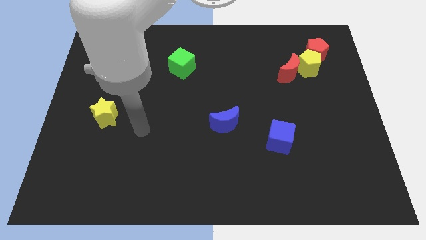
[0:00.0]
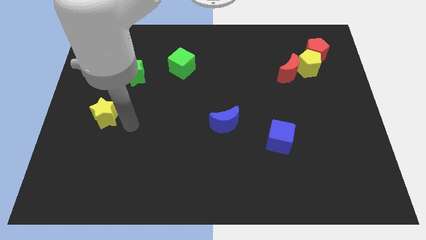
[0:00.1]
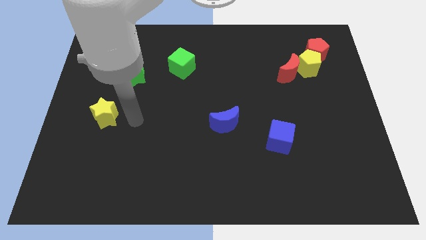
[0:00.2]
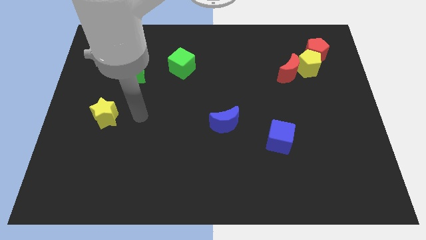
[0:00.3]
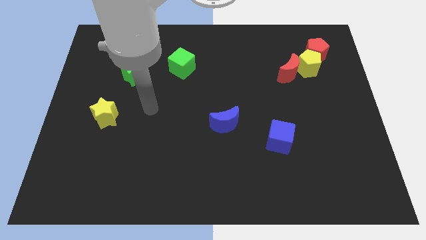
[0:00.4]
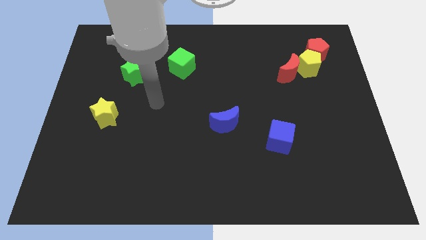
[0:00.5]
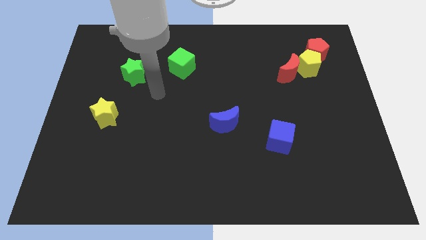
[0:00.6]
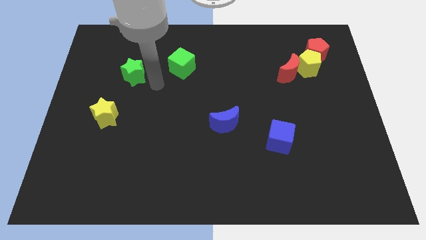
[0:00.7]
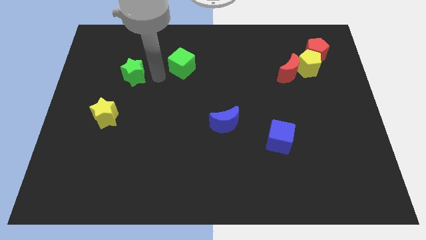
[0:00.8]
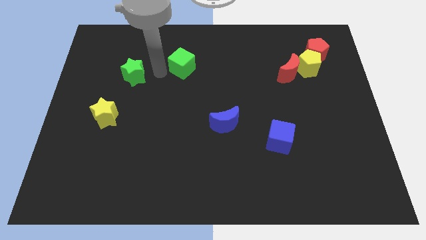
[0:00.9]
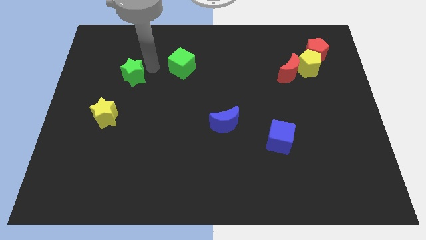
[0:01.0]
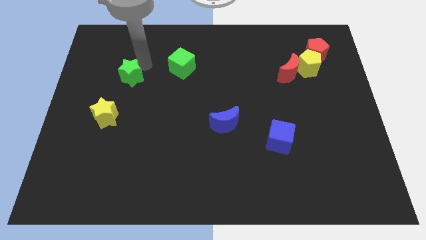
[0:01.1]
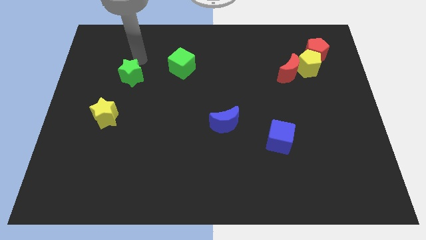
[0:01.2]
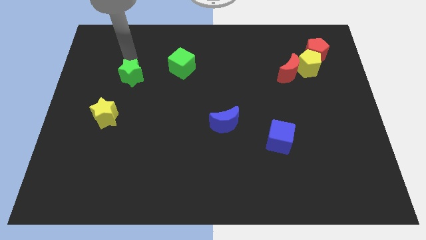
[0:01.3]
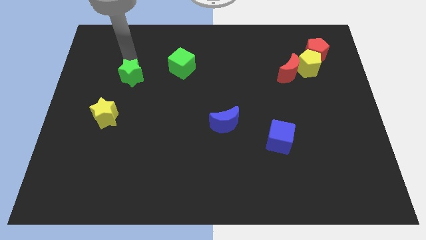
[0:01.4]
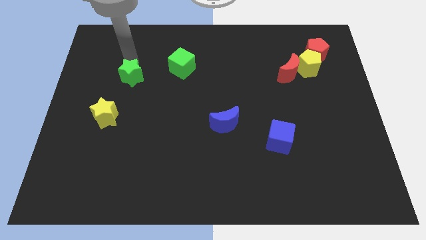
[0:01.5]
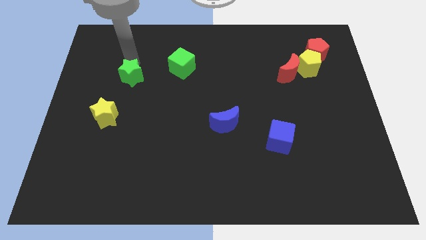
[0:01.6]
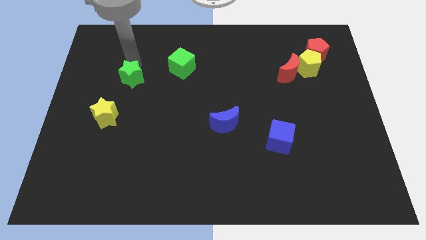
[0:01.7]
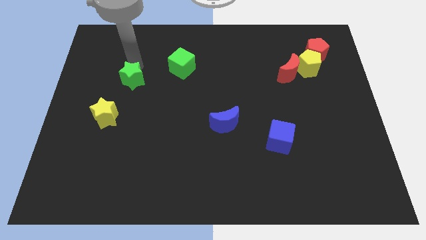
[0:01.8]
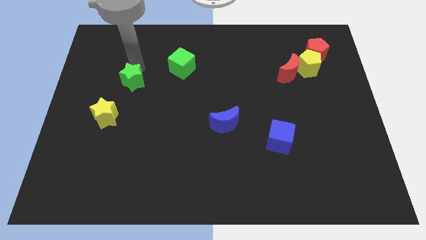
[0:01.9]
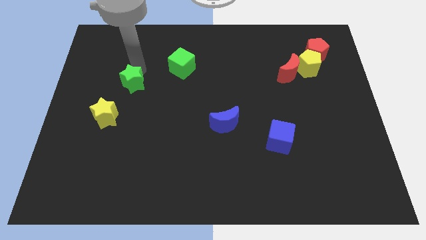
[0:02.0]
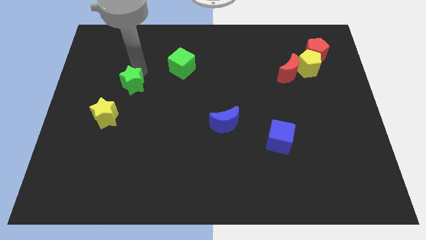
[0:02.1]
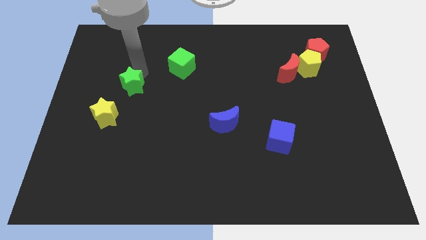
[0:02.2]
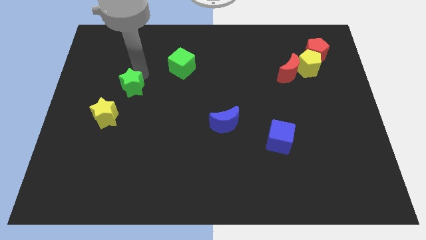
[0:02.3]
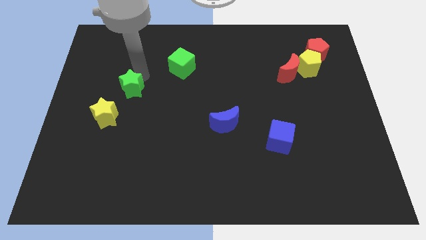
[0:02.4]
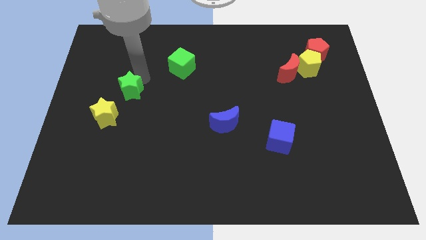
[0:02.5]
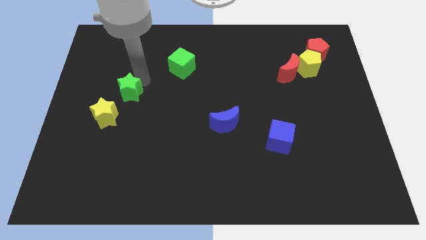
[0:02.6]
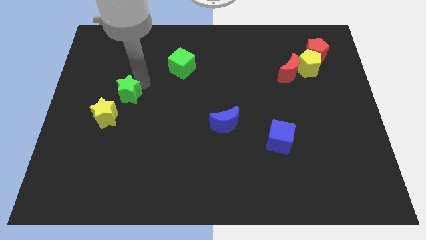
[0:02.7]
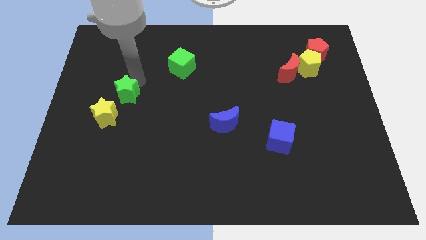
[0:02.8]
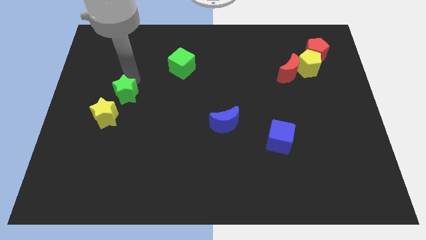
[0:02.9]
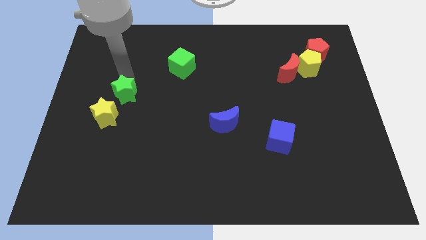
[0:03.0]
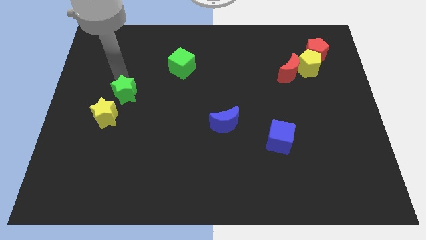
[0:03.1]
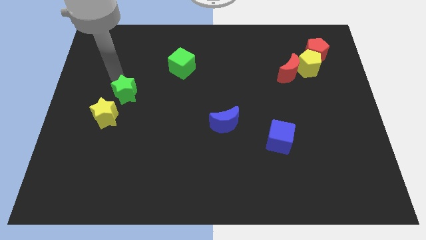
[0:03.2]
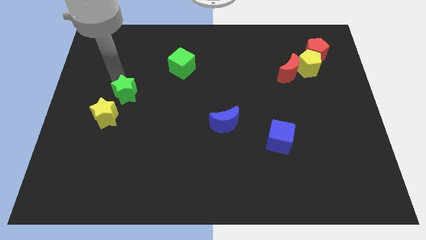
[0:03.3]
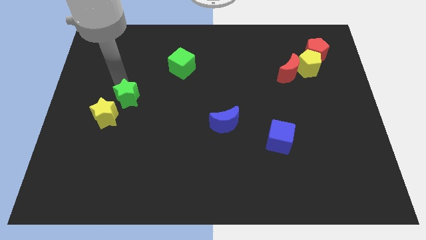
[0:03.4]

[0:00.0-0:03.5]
push the green star a little bit downwards

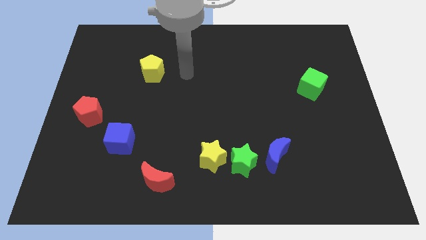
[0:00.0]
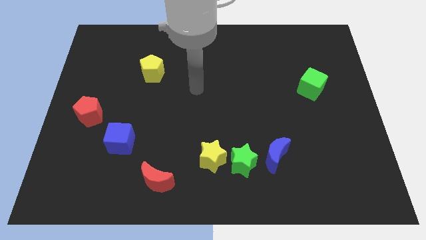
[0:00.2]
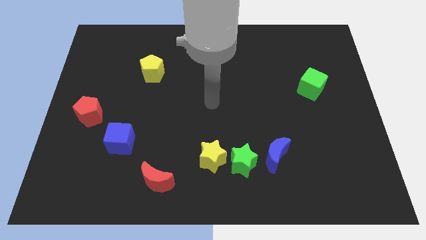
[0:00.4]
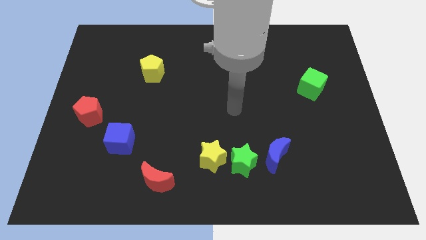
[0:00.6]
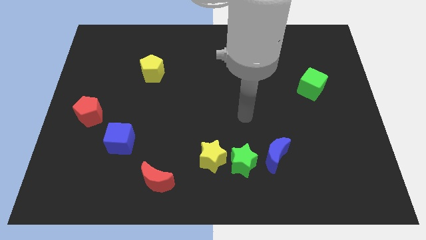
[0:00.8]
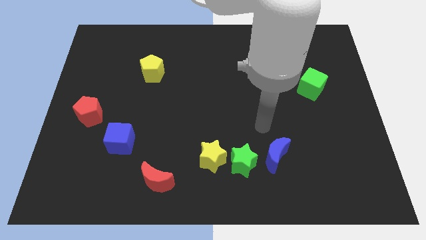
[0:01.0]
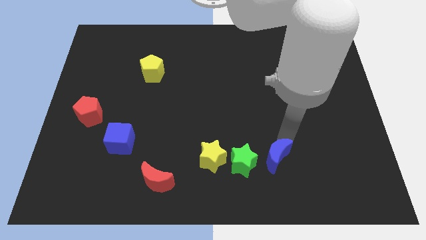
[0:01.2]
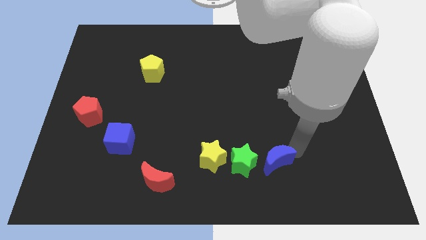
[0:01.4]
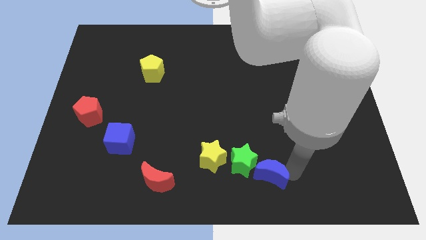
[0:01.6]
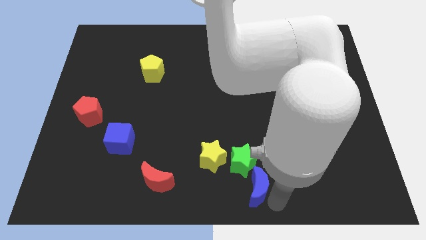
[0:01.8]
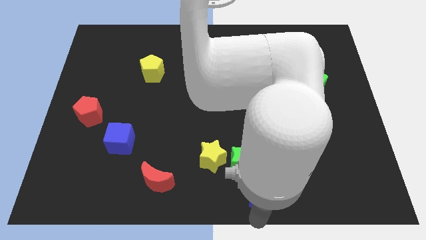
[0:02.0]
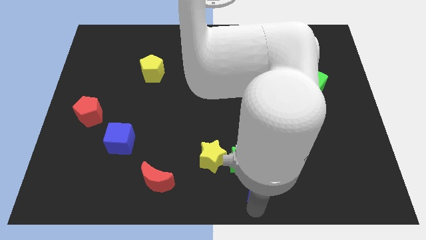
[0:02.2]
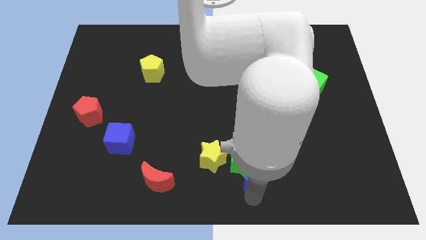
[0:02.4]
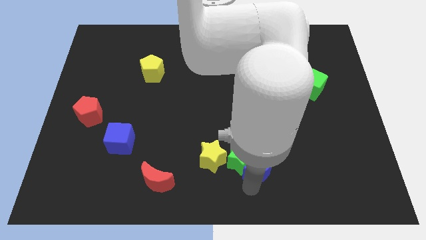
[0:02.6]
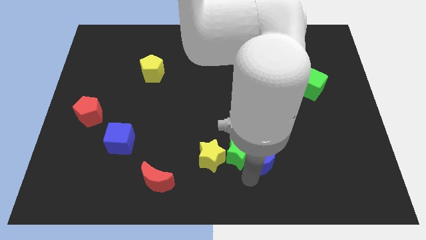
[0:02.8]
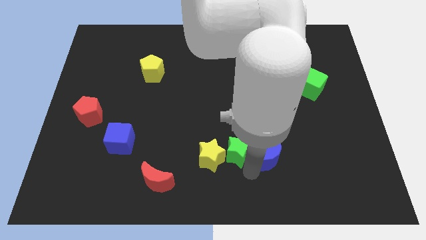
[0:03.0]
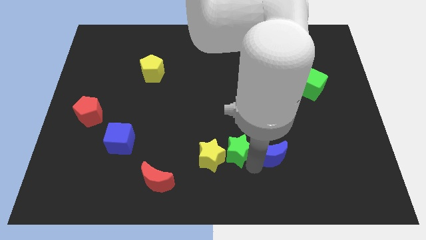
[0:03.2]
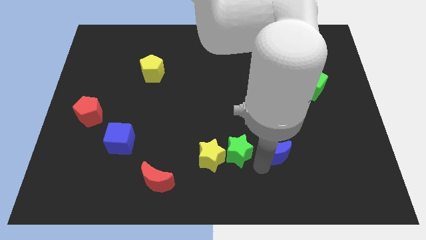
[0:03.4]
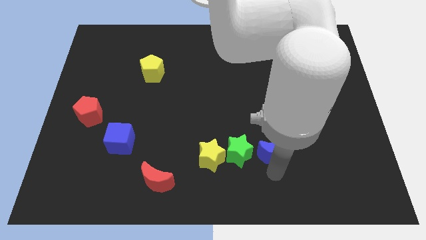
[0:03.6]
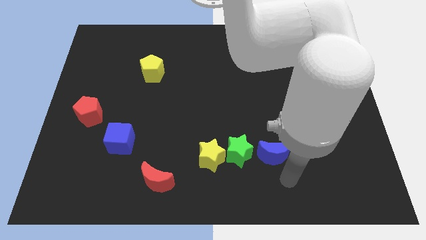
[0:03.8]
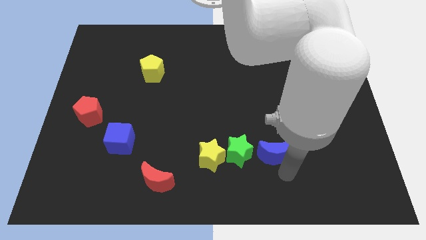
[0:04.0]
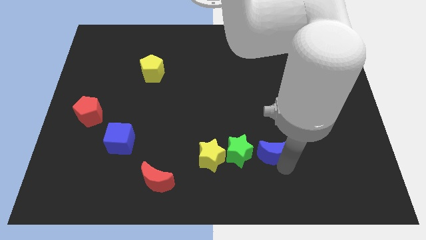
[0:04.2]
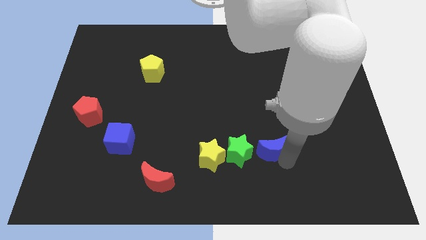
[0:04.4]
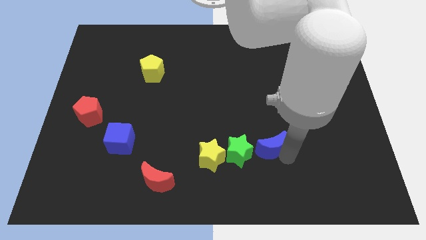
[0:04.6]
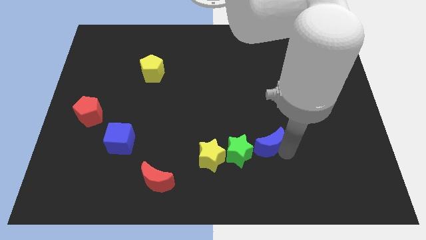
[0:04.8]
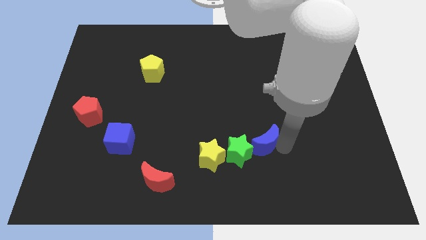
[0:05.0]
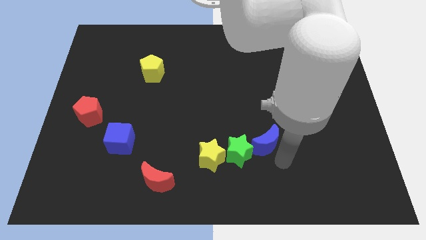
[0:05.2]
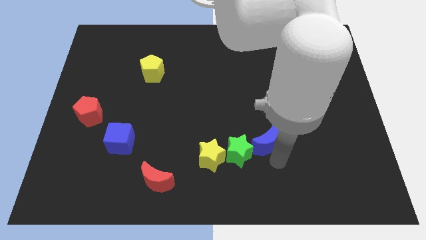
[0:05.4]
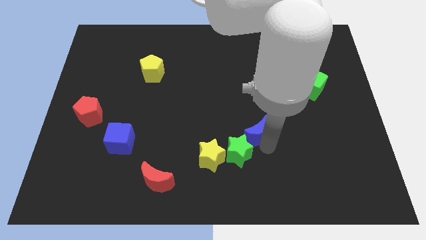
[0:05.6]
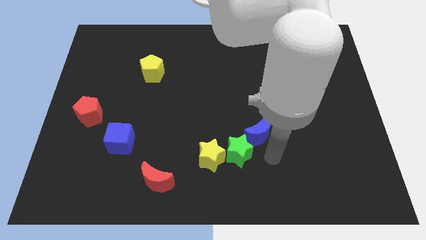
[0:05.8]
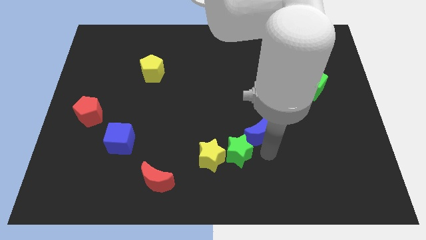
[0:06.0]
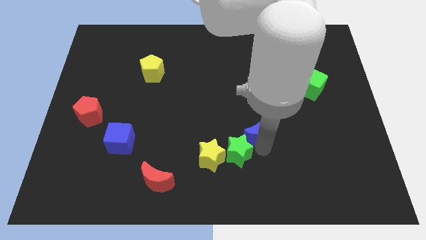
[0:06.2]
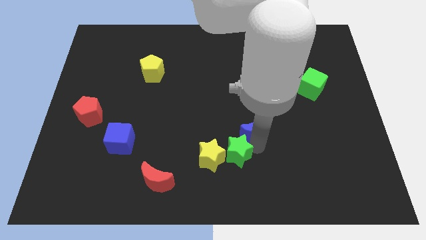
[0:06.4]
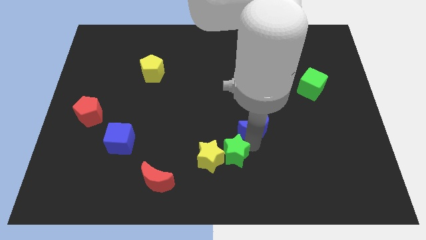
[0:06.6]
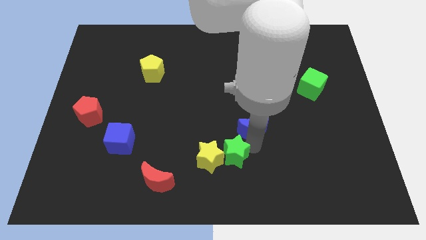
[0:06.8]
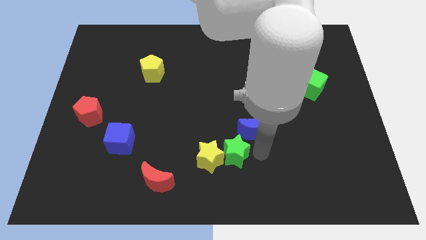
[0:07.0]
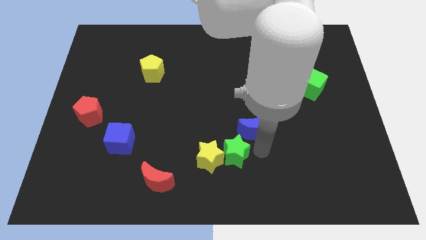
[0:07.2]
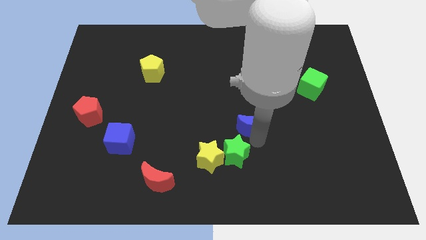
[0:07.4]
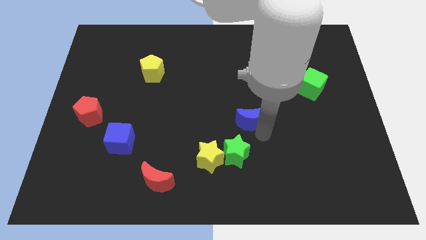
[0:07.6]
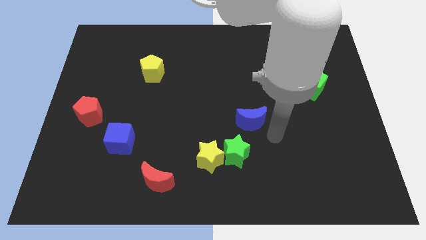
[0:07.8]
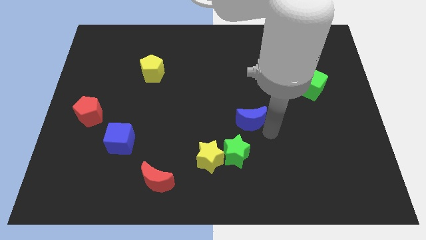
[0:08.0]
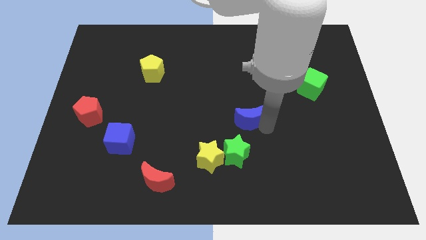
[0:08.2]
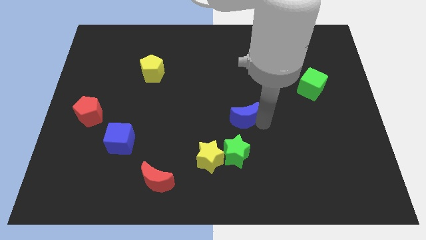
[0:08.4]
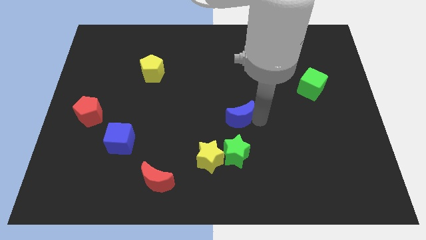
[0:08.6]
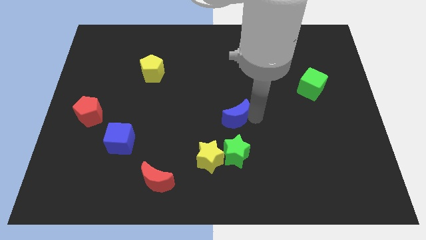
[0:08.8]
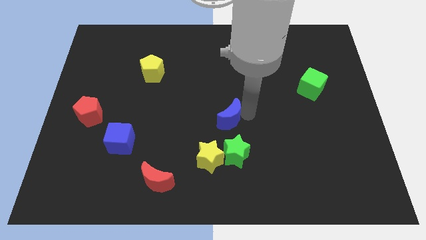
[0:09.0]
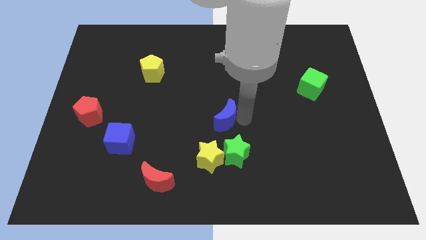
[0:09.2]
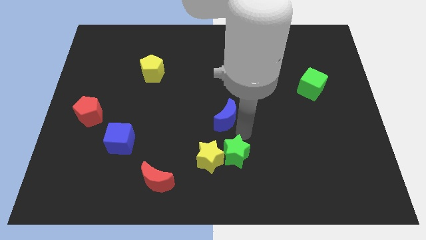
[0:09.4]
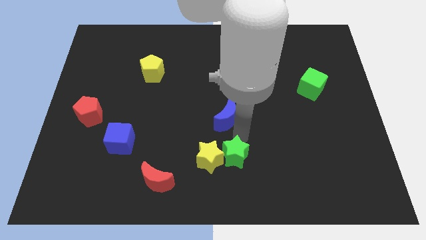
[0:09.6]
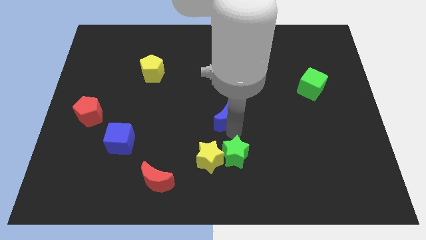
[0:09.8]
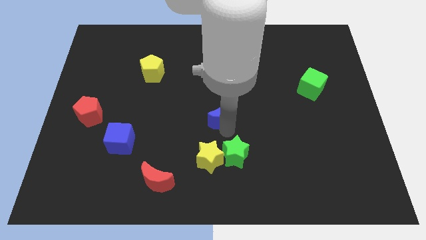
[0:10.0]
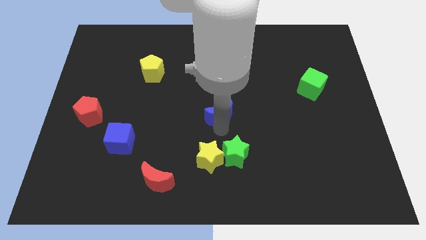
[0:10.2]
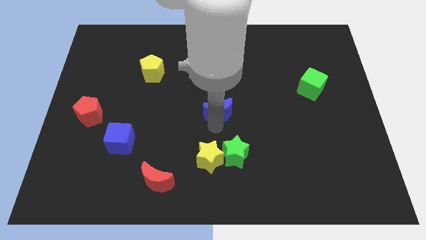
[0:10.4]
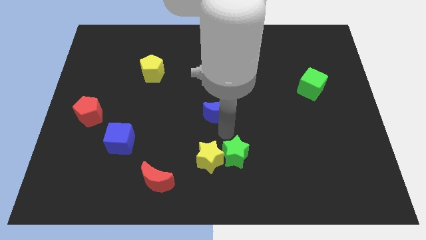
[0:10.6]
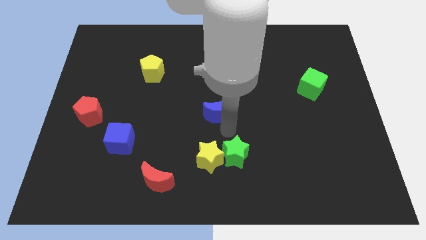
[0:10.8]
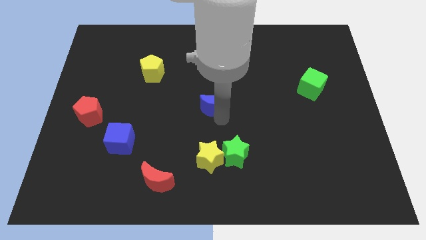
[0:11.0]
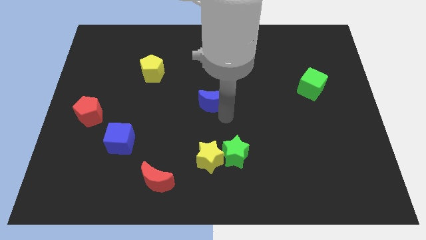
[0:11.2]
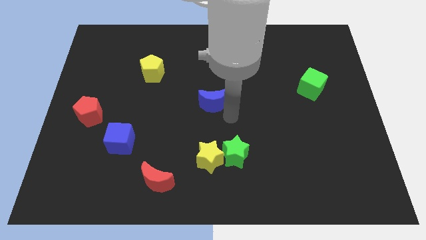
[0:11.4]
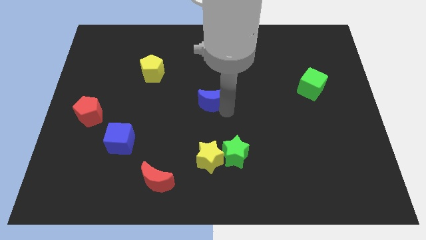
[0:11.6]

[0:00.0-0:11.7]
move the blue moon diagonally up and to the left
